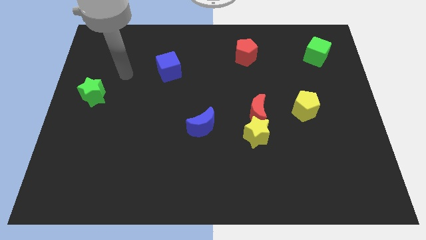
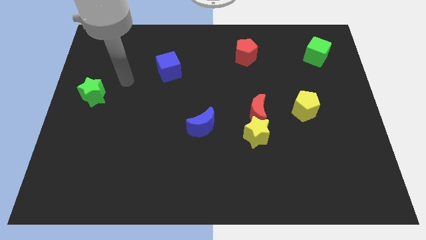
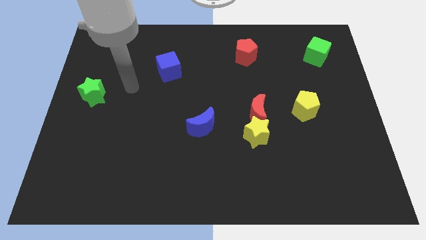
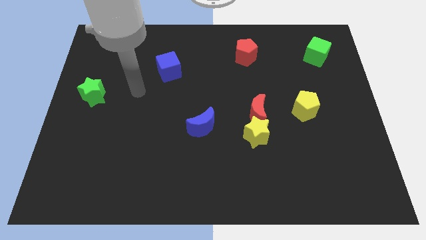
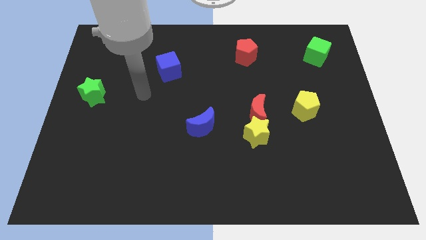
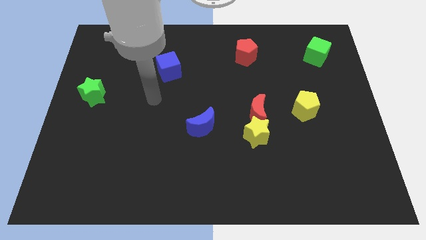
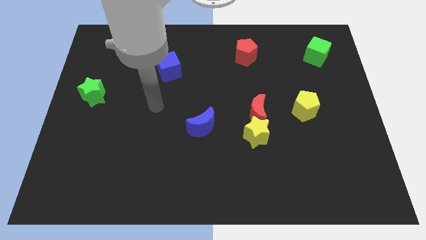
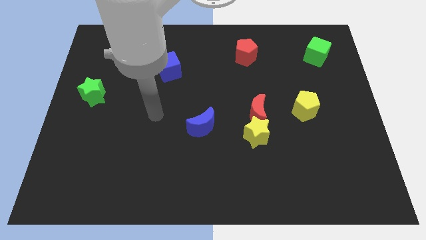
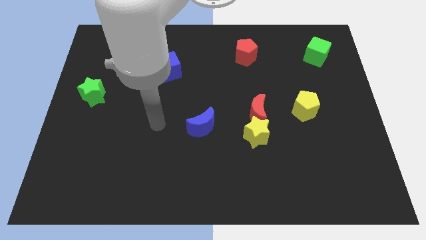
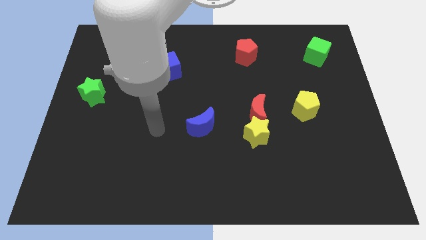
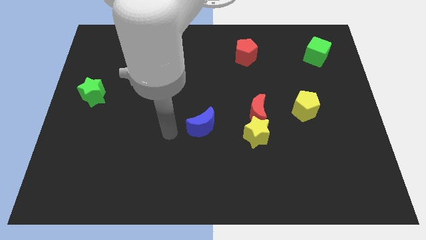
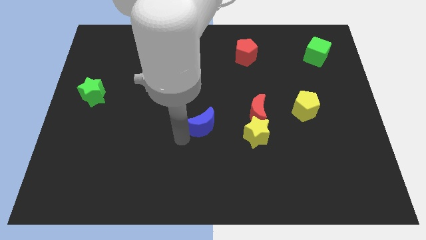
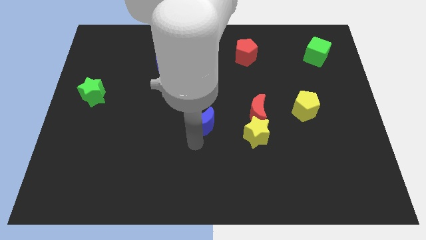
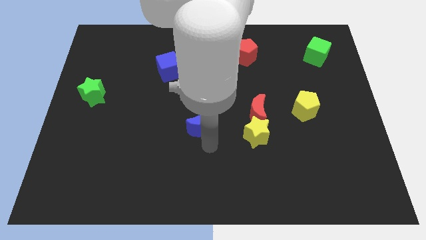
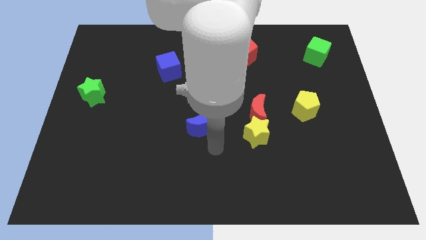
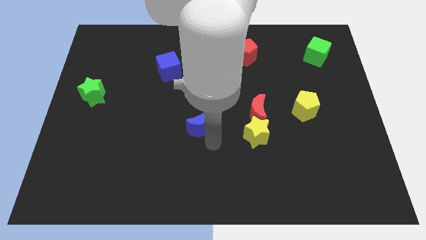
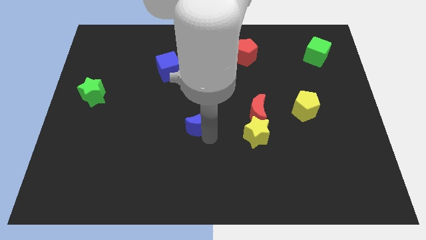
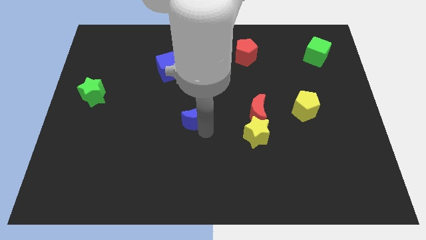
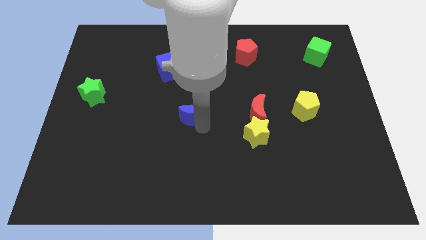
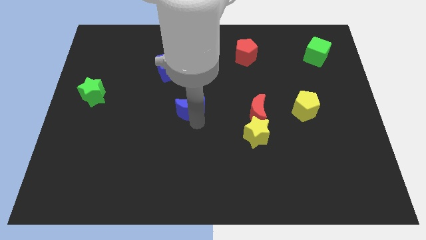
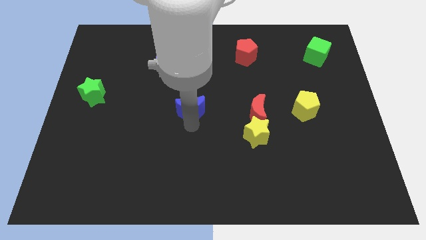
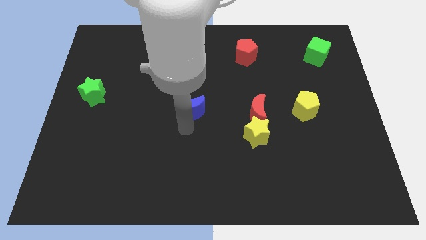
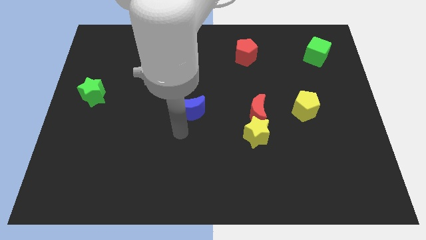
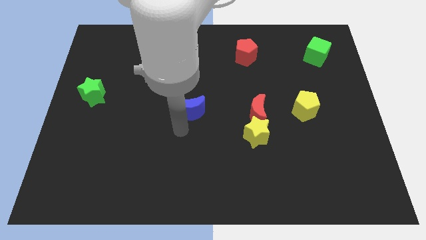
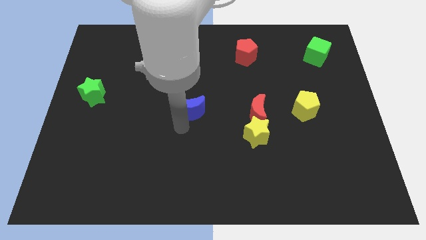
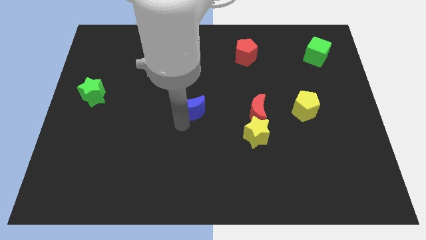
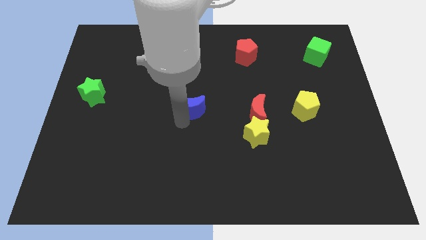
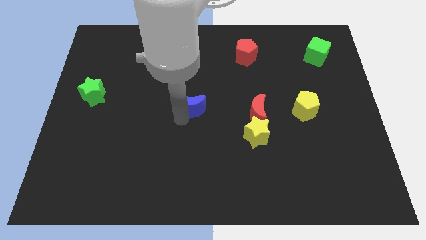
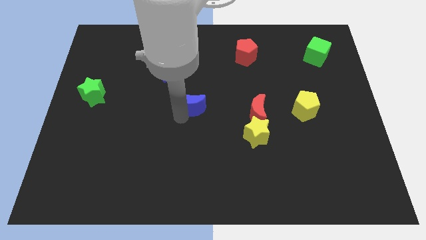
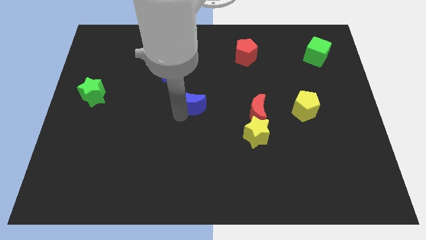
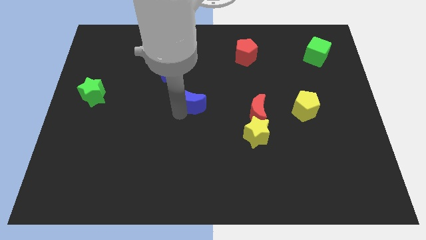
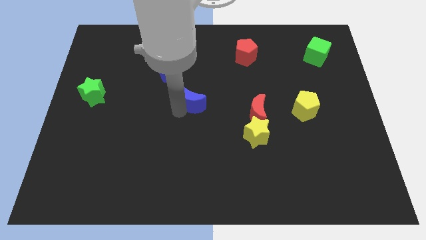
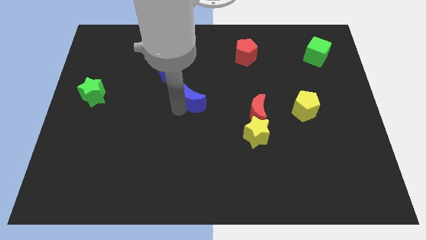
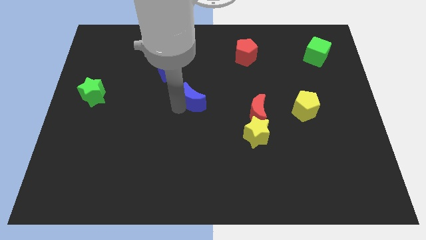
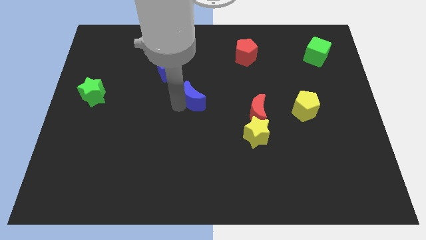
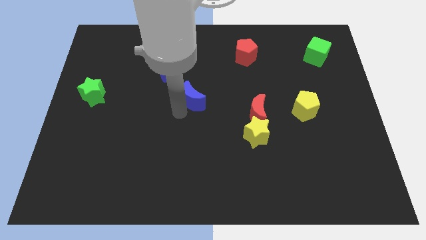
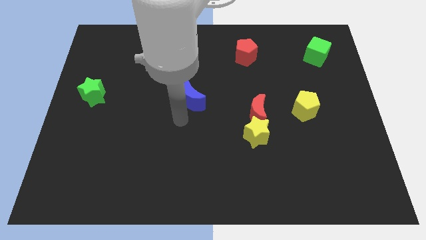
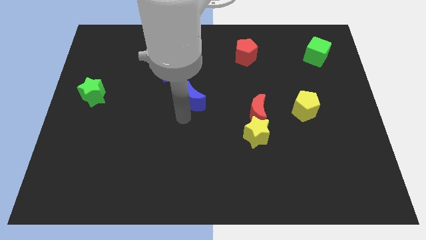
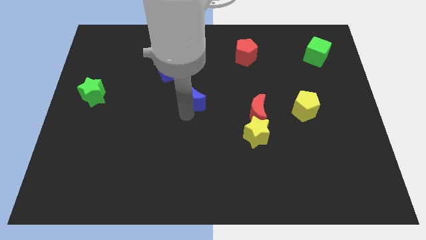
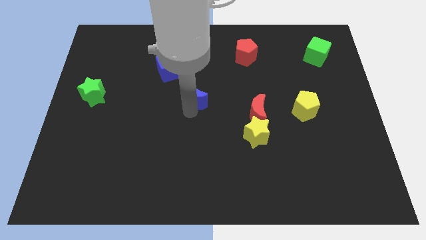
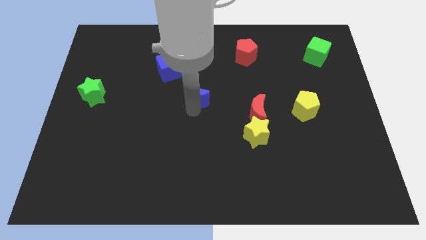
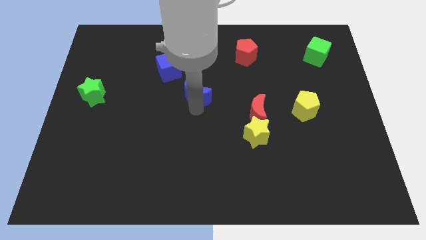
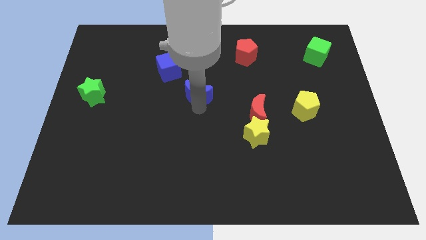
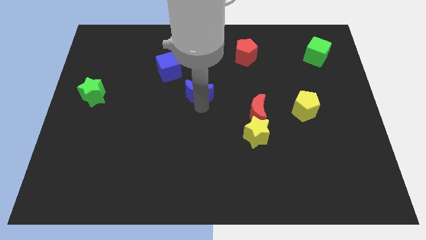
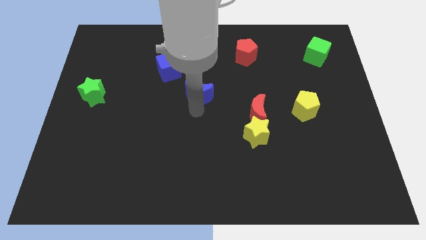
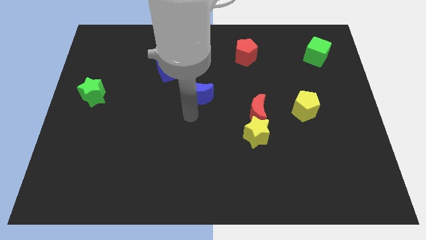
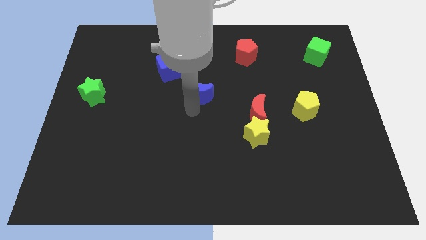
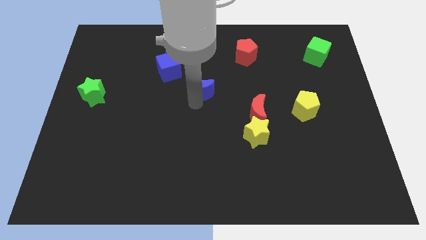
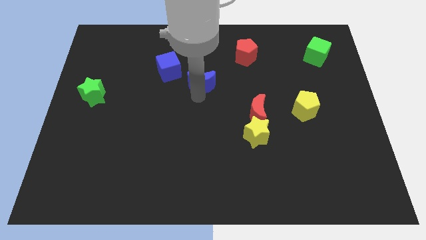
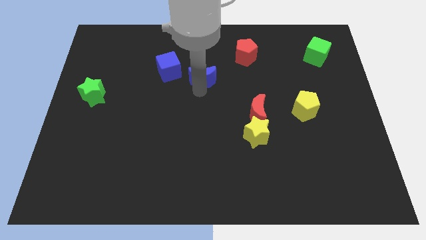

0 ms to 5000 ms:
move the blue moon just right of the blue cube

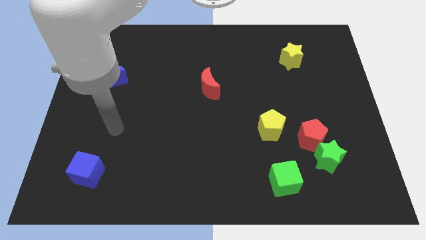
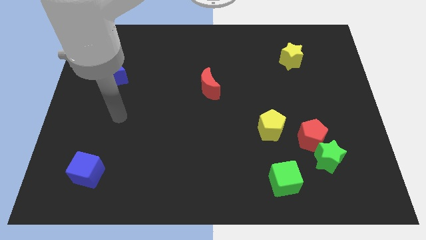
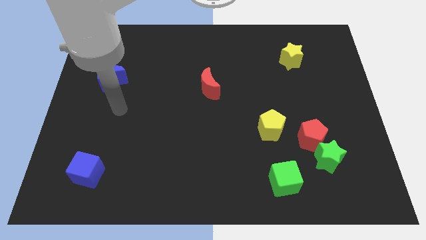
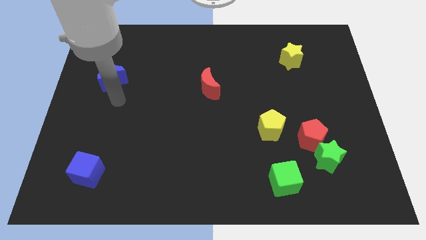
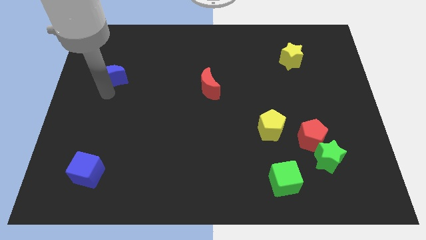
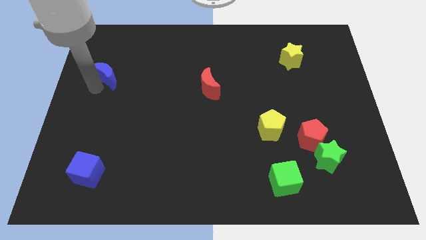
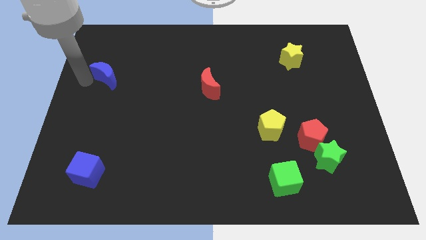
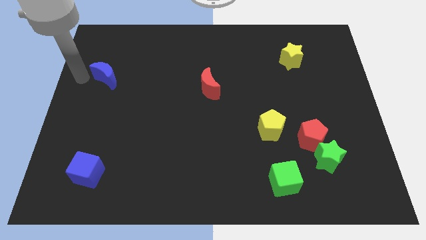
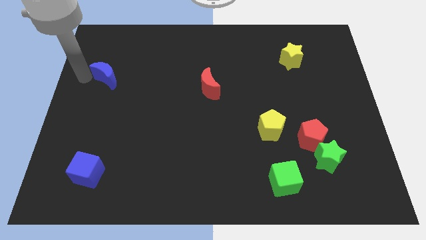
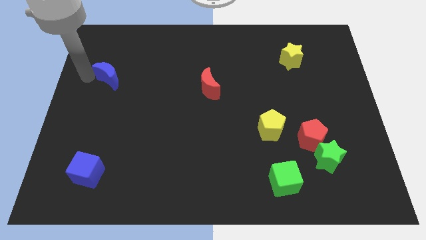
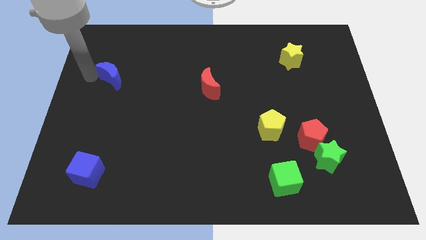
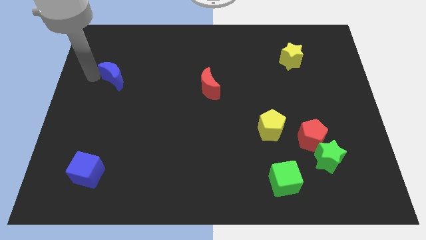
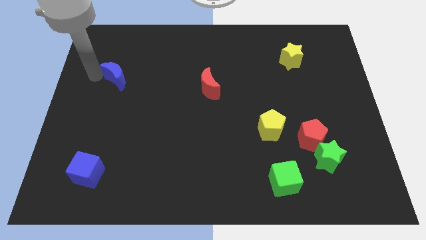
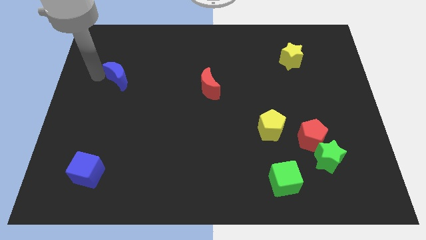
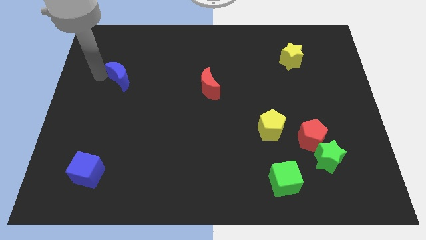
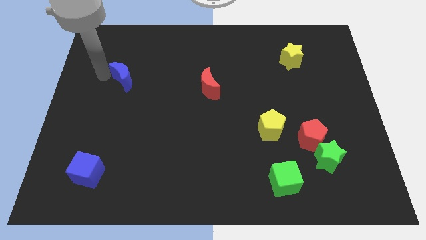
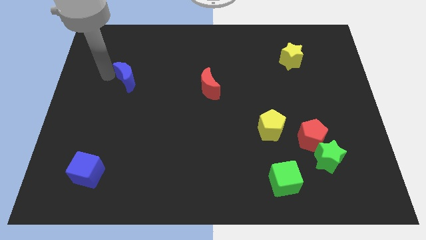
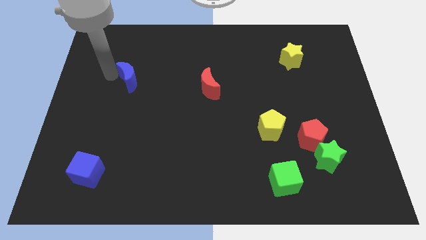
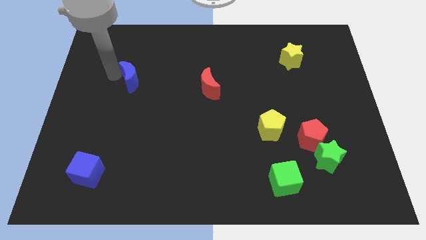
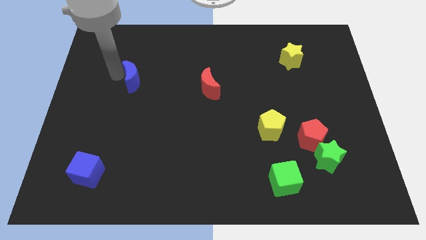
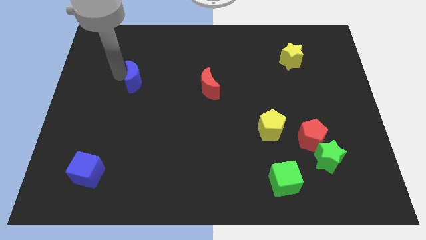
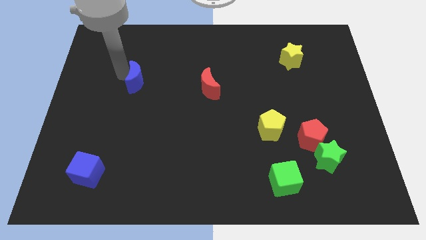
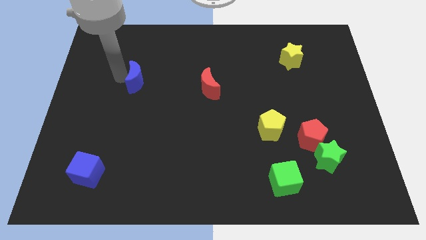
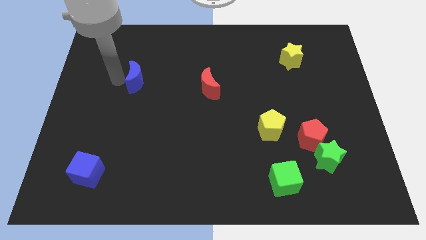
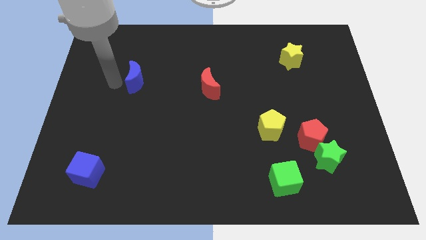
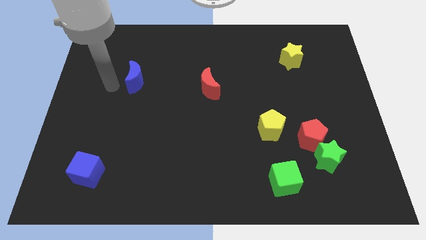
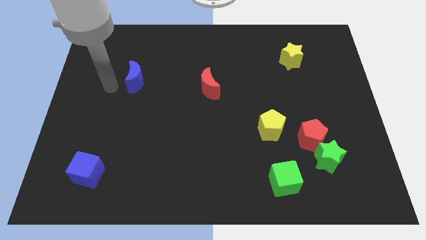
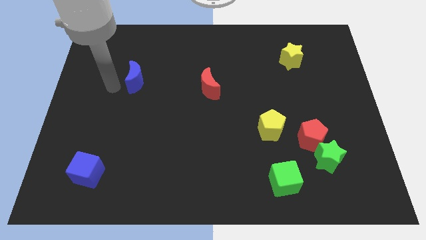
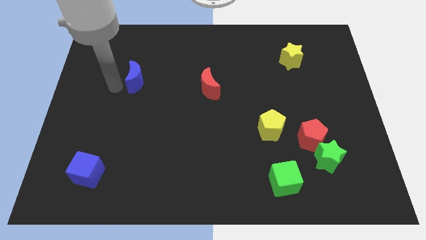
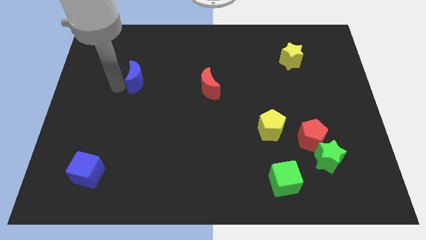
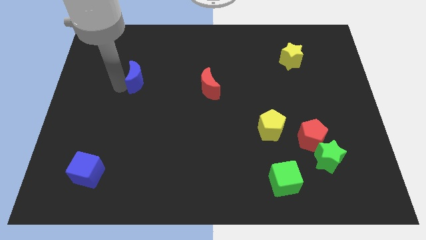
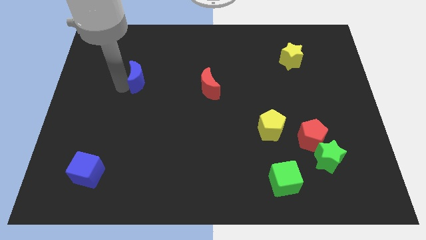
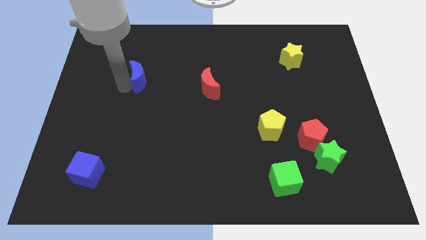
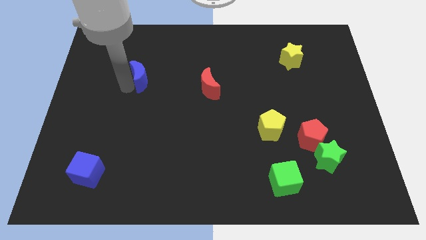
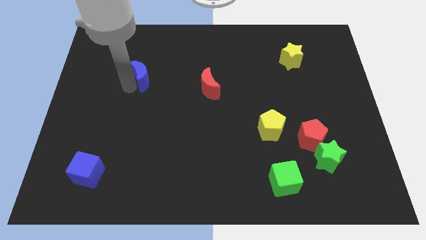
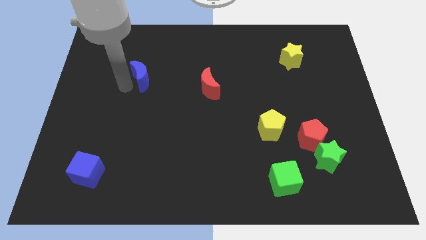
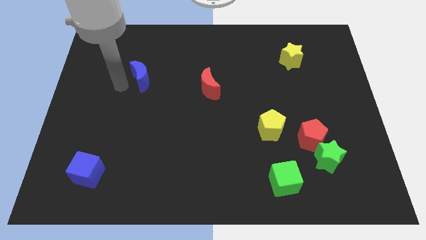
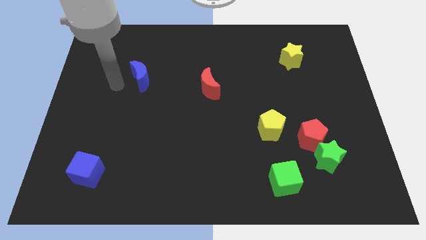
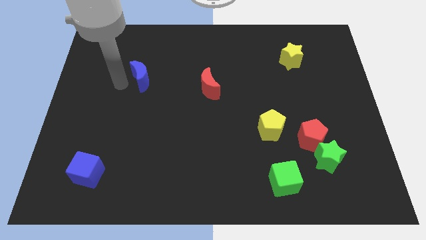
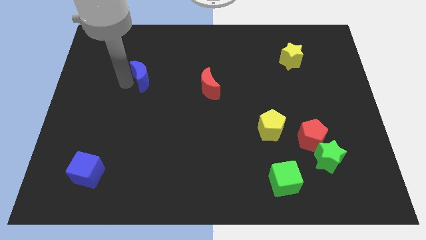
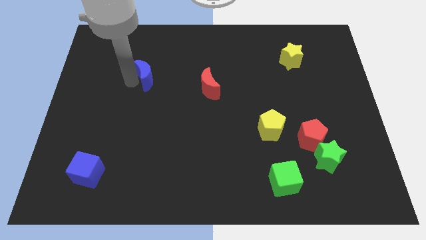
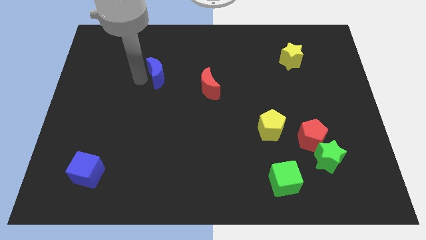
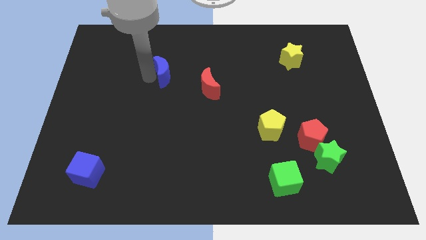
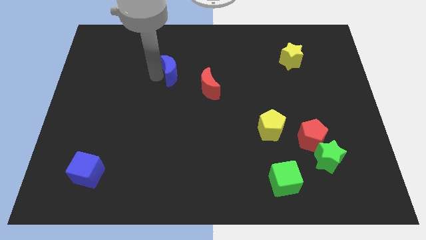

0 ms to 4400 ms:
put the blue moon to the top left of the red moon
